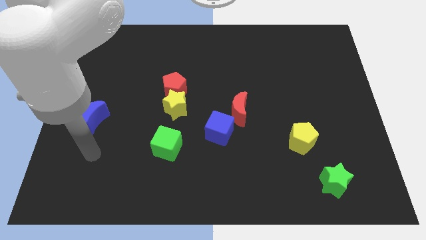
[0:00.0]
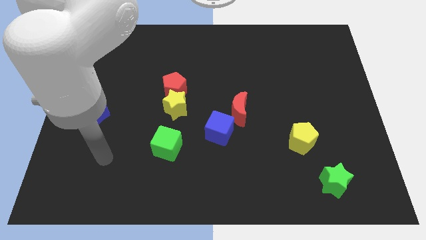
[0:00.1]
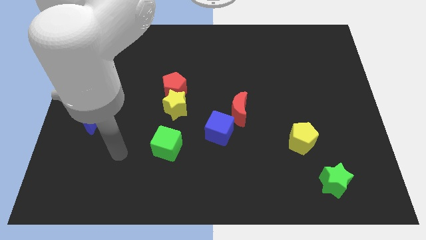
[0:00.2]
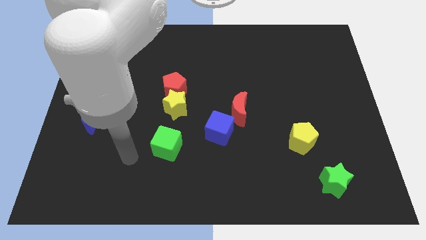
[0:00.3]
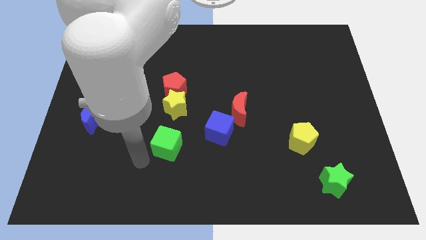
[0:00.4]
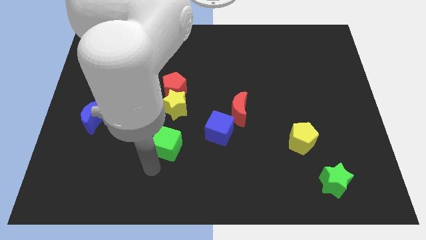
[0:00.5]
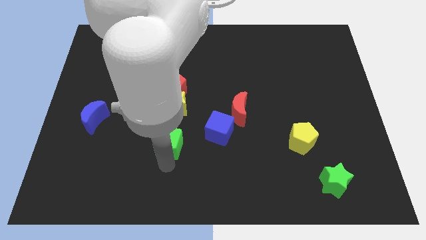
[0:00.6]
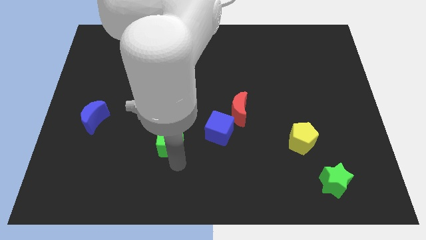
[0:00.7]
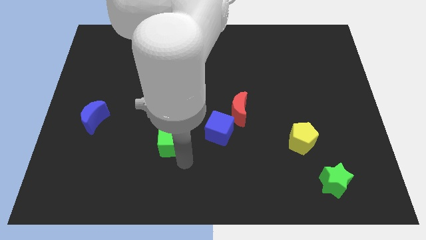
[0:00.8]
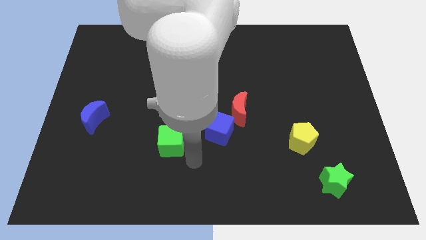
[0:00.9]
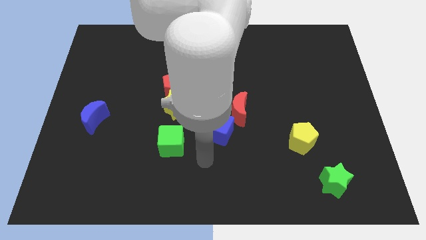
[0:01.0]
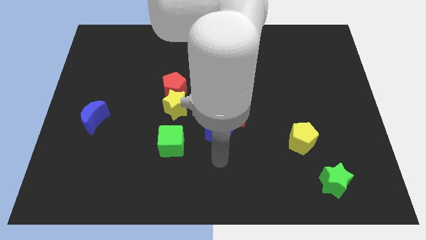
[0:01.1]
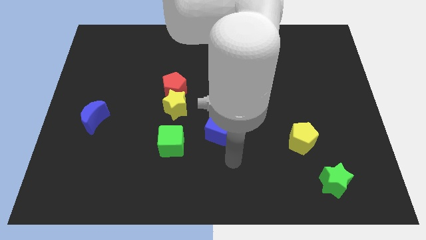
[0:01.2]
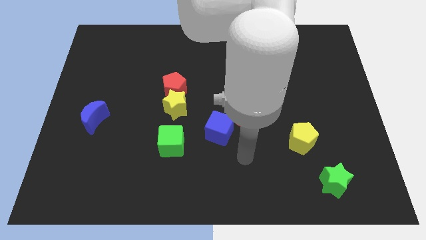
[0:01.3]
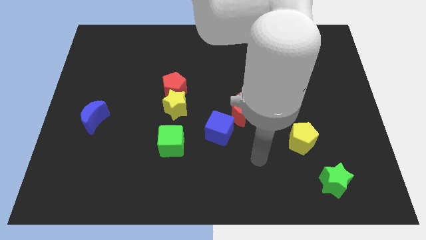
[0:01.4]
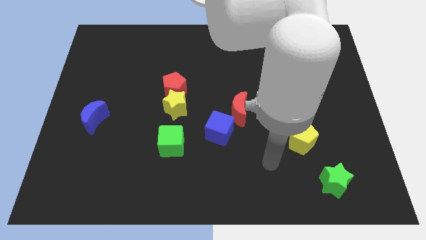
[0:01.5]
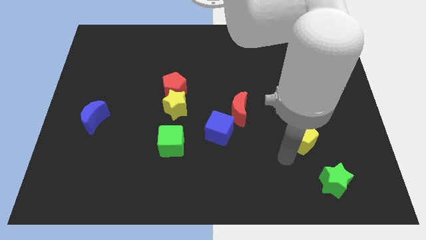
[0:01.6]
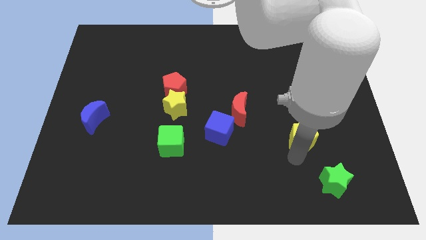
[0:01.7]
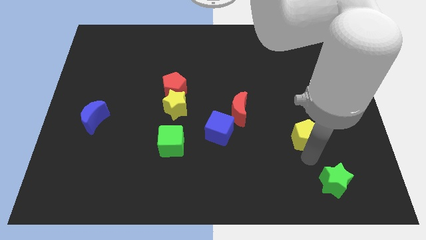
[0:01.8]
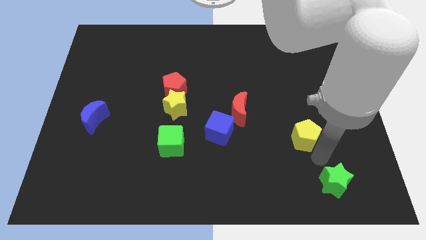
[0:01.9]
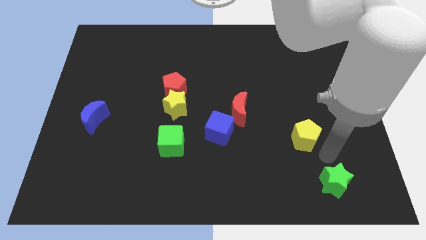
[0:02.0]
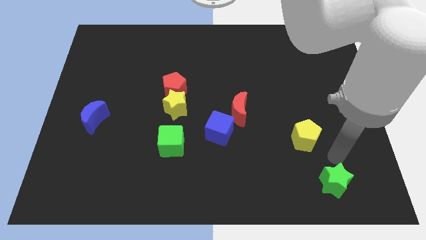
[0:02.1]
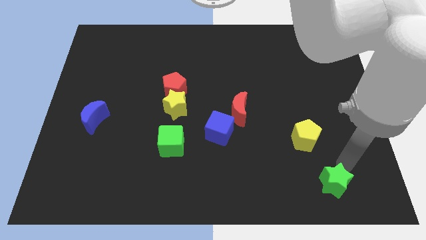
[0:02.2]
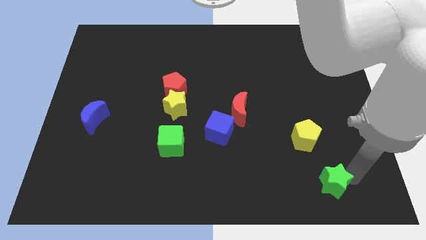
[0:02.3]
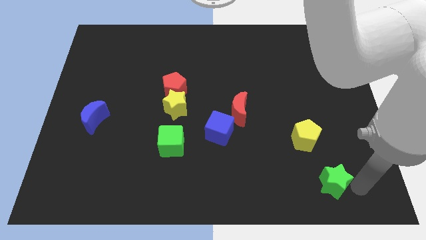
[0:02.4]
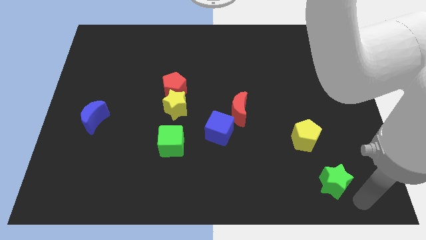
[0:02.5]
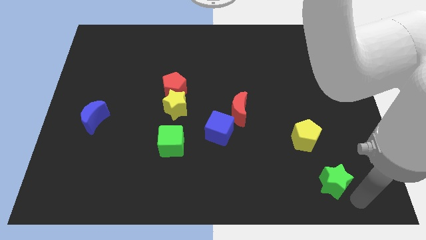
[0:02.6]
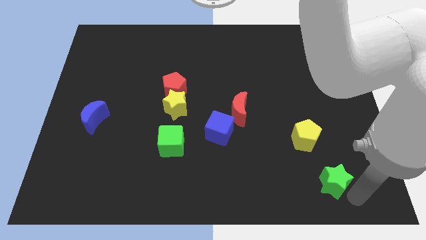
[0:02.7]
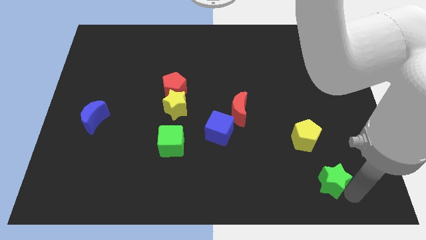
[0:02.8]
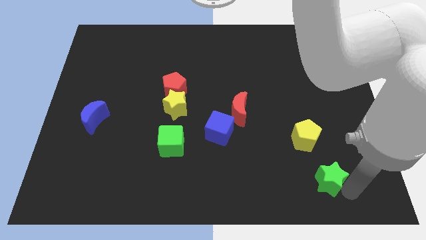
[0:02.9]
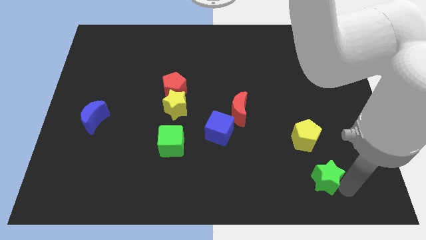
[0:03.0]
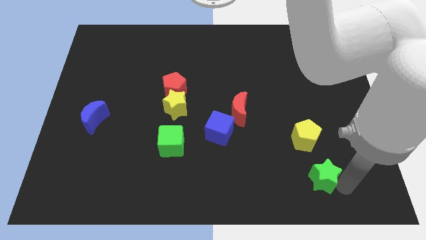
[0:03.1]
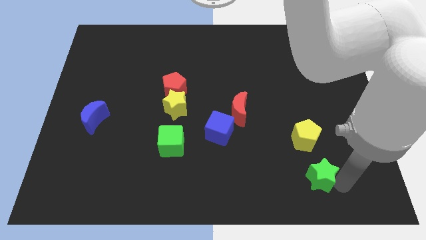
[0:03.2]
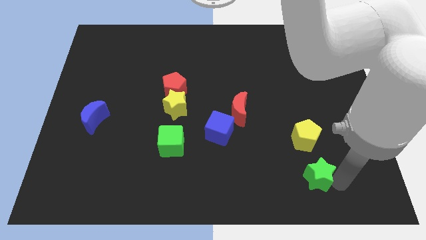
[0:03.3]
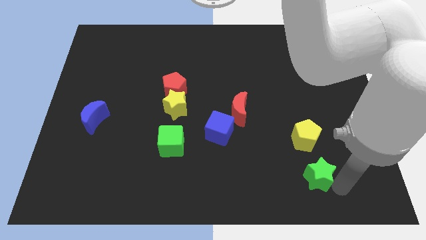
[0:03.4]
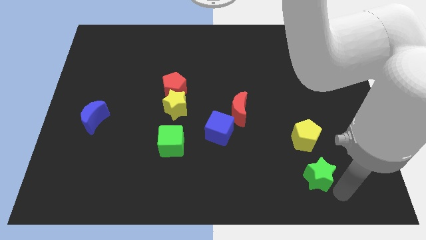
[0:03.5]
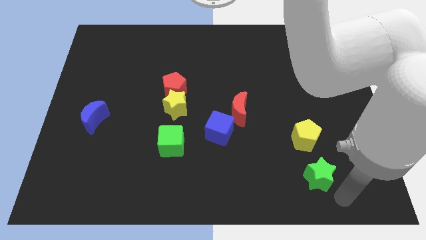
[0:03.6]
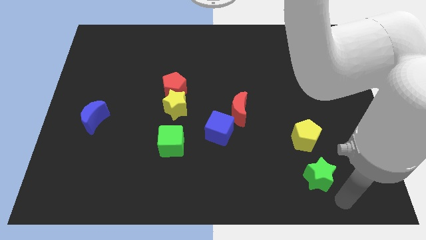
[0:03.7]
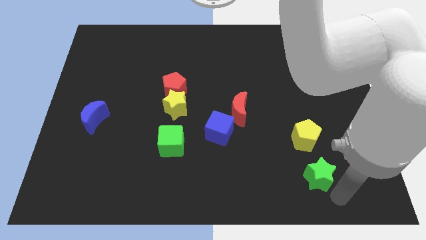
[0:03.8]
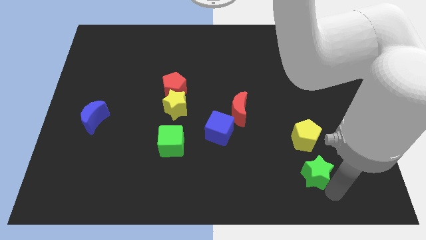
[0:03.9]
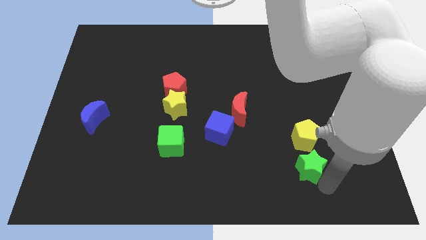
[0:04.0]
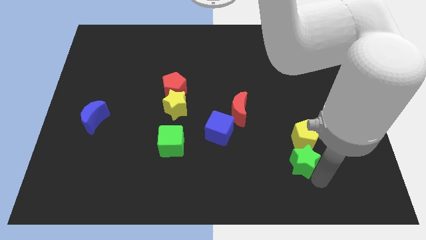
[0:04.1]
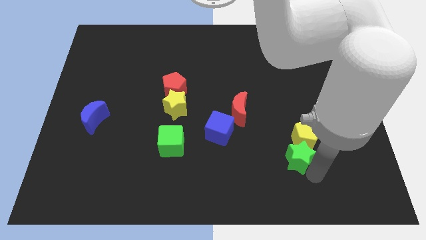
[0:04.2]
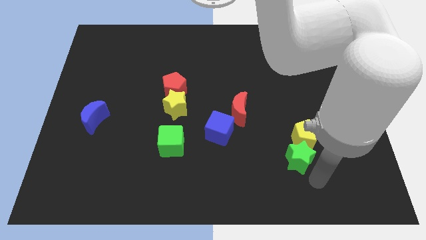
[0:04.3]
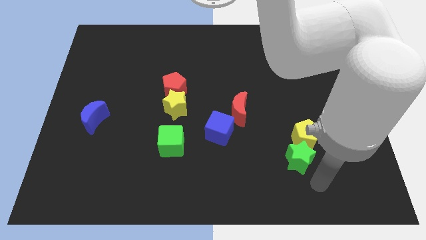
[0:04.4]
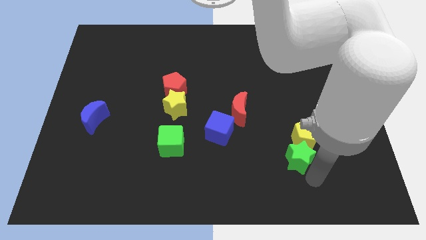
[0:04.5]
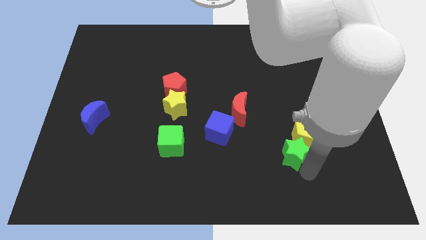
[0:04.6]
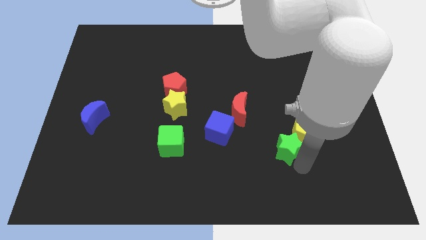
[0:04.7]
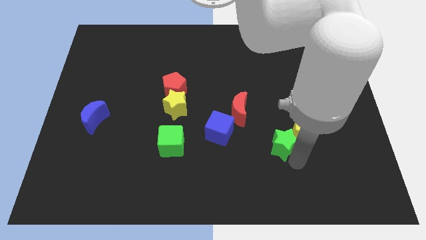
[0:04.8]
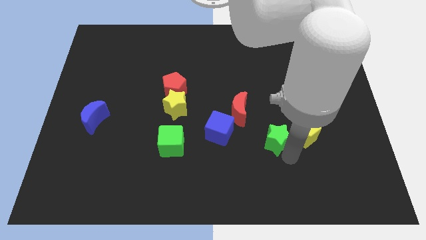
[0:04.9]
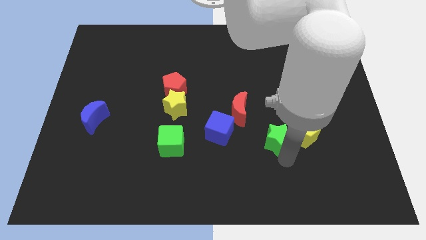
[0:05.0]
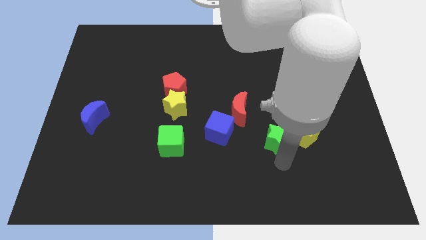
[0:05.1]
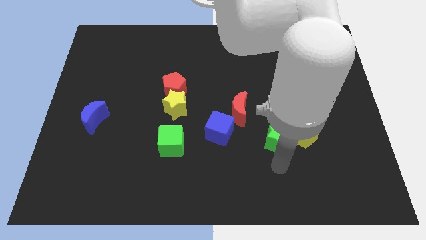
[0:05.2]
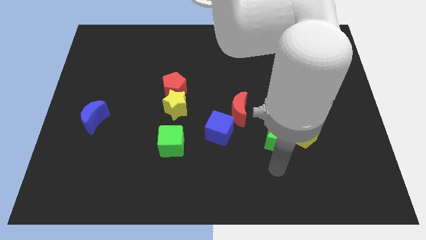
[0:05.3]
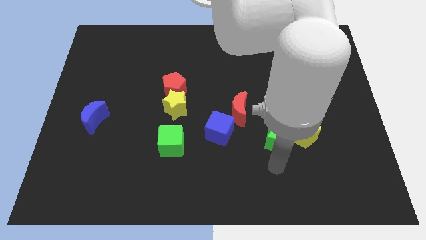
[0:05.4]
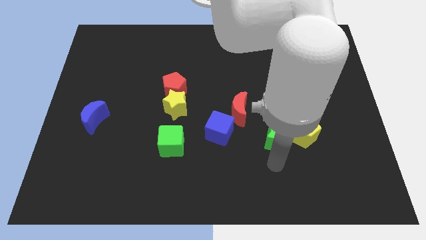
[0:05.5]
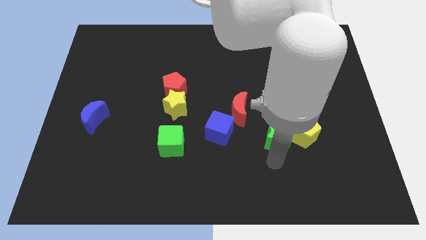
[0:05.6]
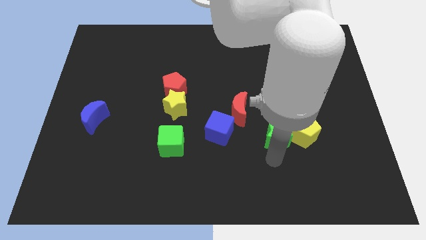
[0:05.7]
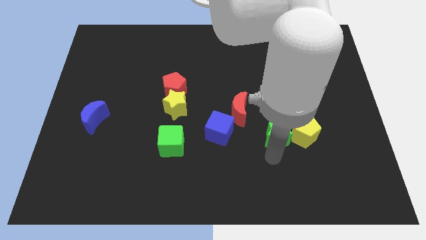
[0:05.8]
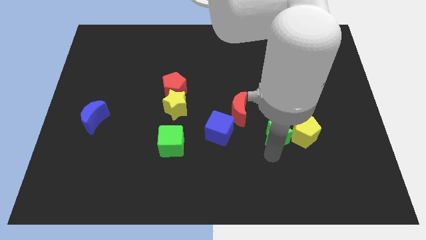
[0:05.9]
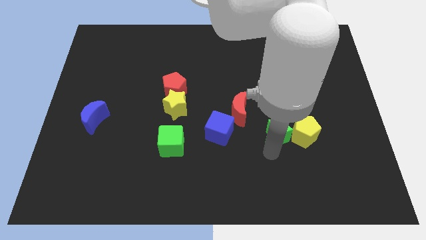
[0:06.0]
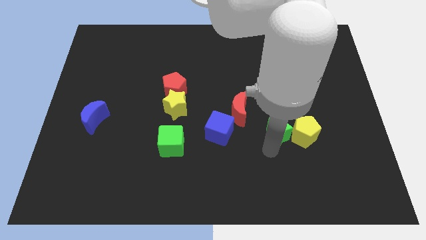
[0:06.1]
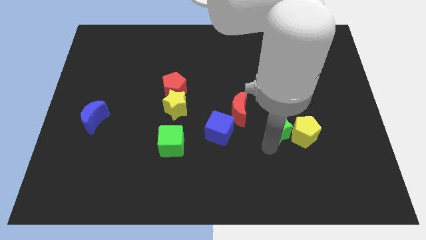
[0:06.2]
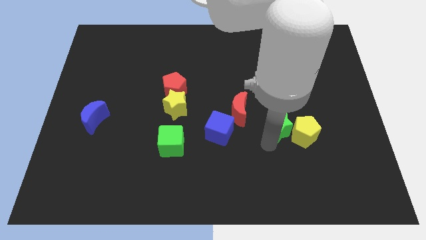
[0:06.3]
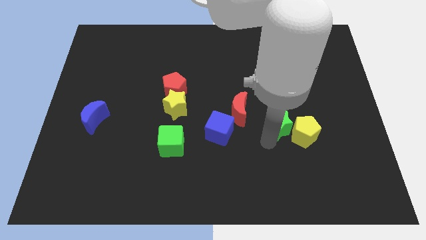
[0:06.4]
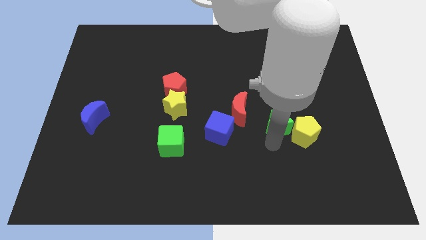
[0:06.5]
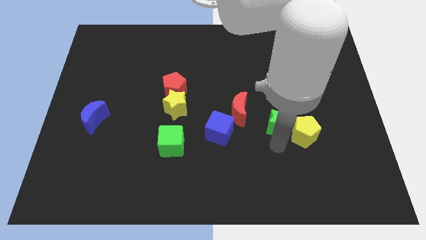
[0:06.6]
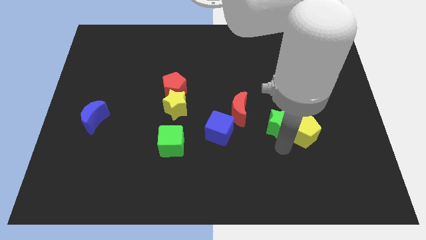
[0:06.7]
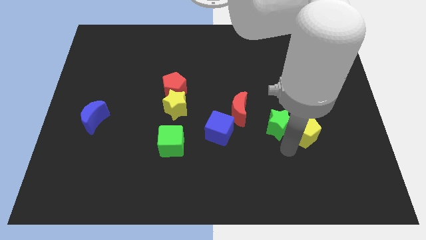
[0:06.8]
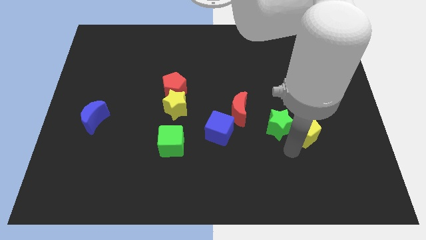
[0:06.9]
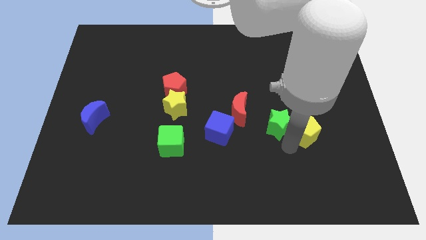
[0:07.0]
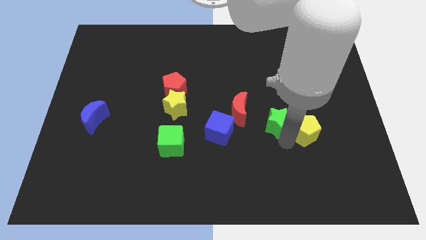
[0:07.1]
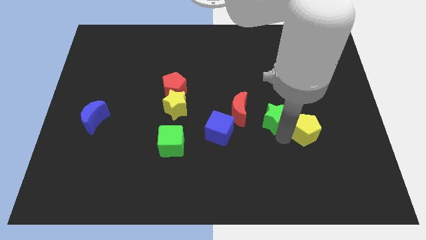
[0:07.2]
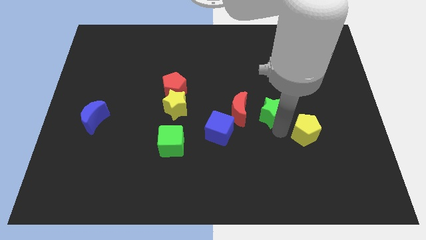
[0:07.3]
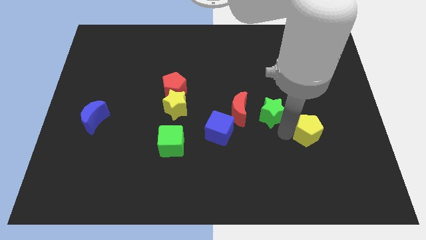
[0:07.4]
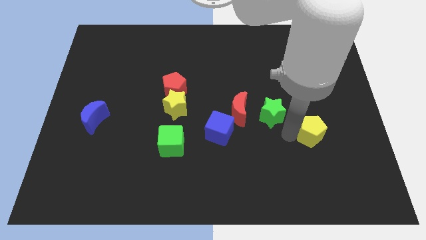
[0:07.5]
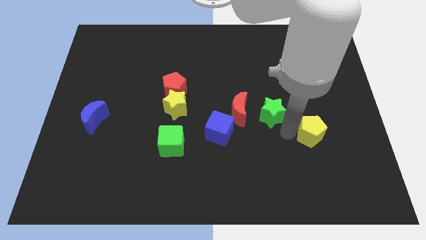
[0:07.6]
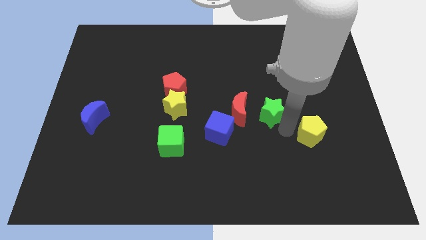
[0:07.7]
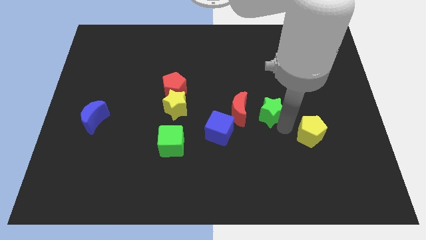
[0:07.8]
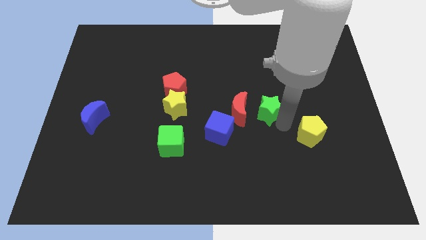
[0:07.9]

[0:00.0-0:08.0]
move the green star upwards and to the left diagonally

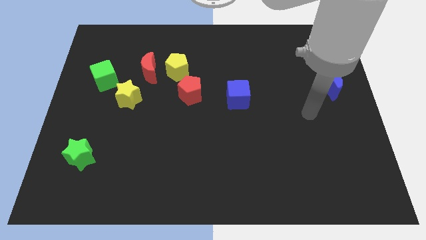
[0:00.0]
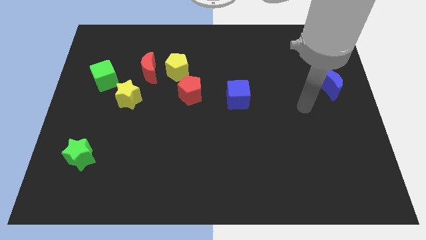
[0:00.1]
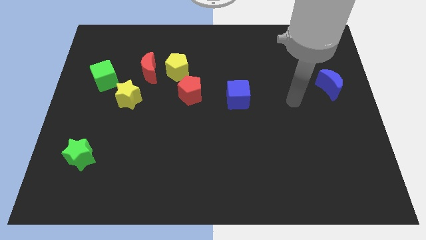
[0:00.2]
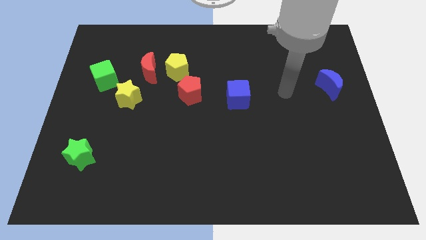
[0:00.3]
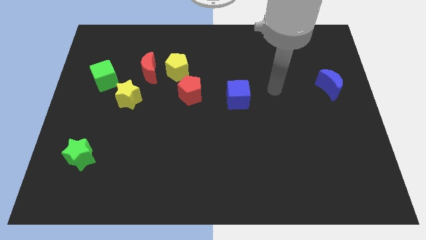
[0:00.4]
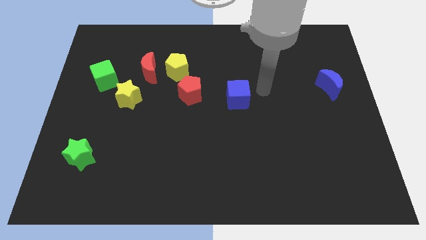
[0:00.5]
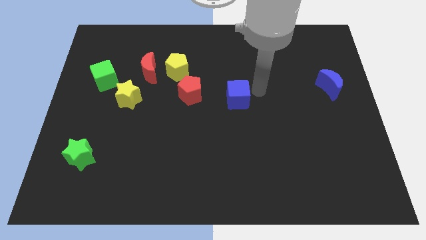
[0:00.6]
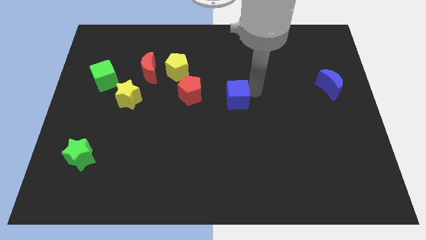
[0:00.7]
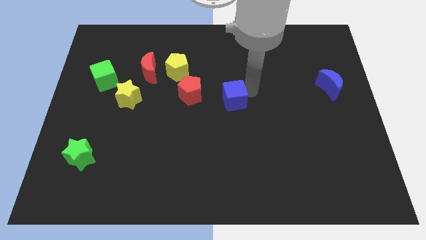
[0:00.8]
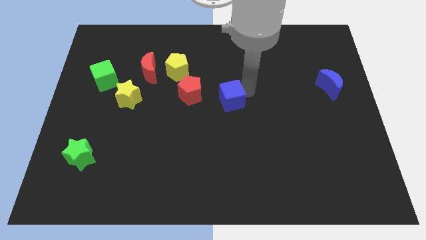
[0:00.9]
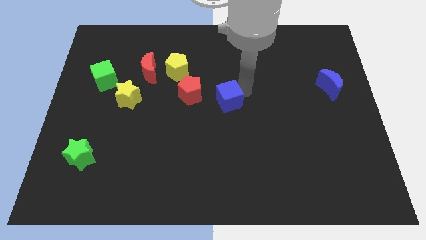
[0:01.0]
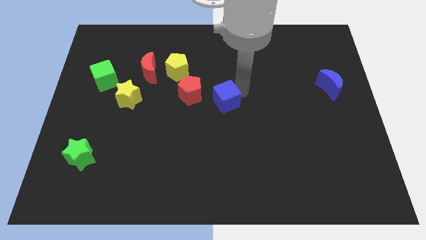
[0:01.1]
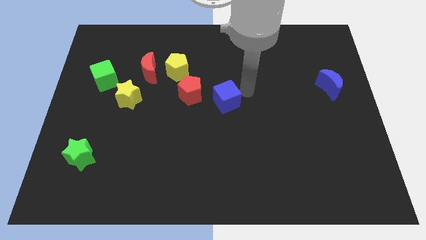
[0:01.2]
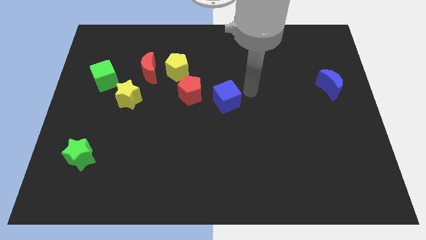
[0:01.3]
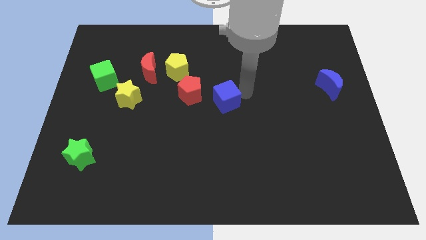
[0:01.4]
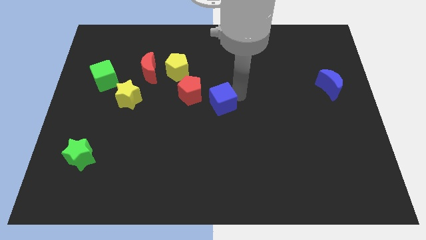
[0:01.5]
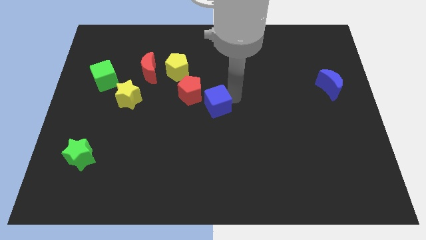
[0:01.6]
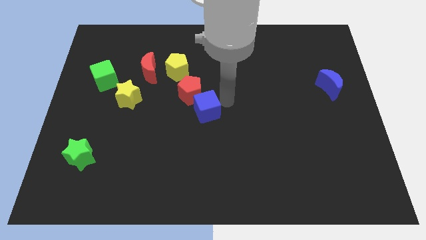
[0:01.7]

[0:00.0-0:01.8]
push the blue cube left a bit
